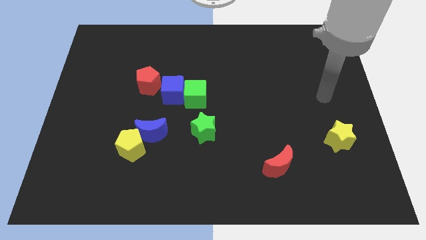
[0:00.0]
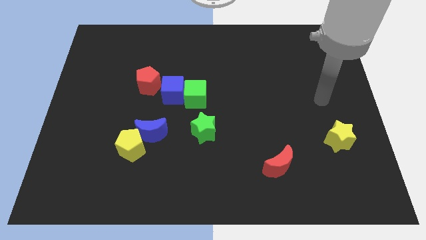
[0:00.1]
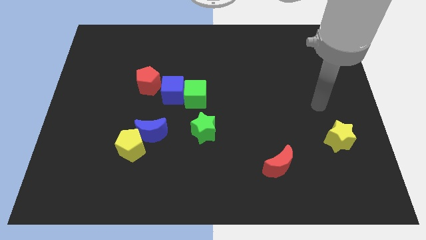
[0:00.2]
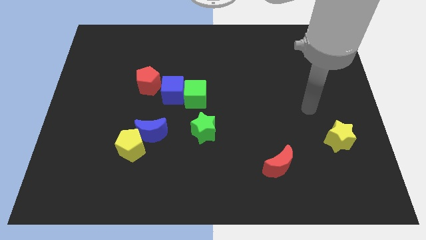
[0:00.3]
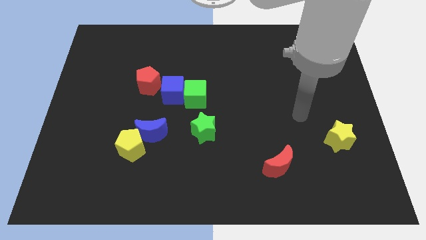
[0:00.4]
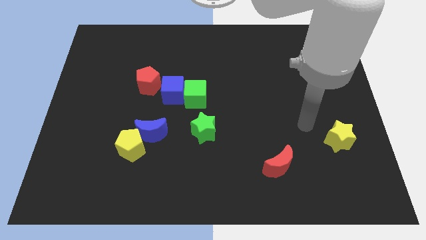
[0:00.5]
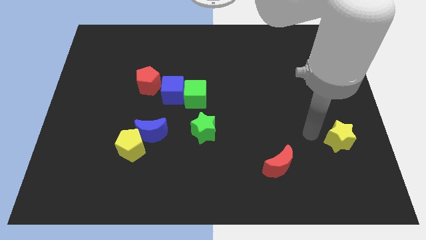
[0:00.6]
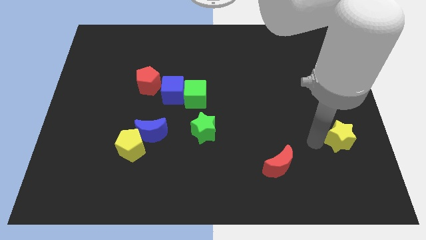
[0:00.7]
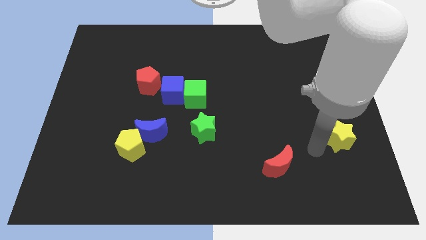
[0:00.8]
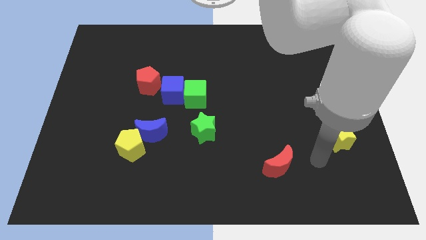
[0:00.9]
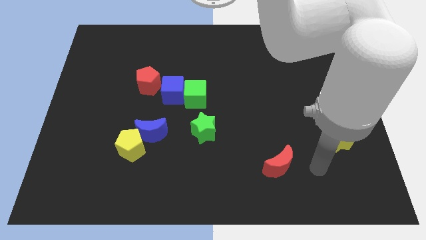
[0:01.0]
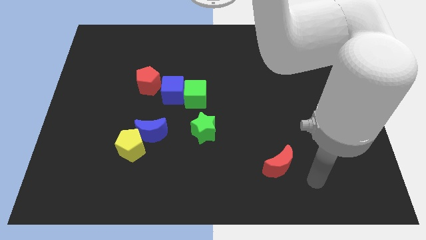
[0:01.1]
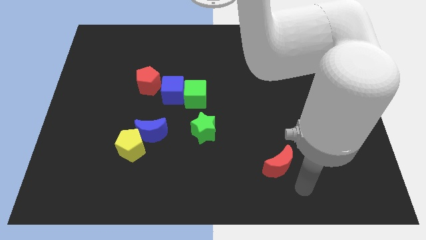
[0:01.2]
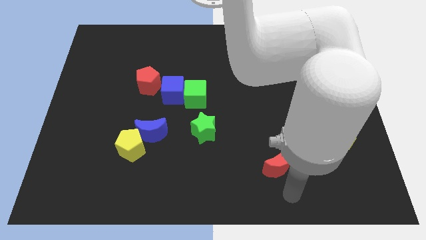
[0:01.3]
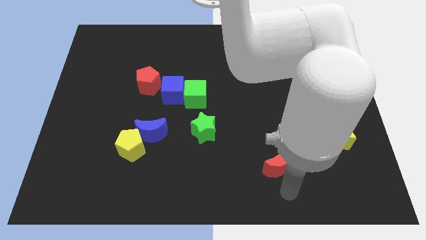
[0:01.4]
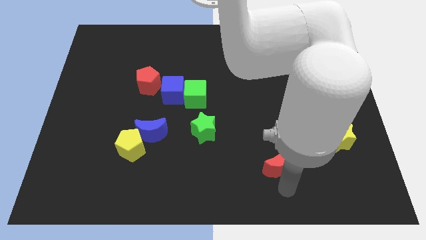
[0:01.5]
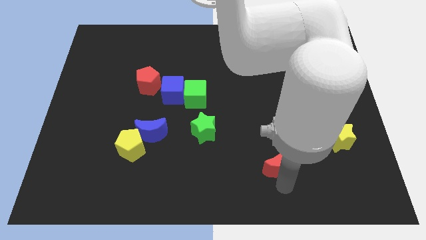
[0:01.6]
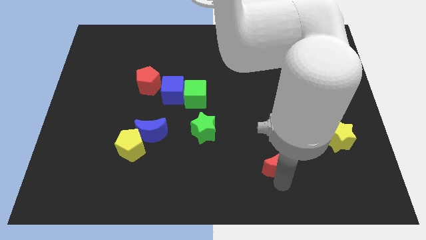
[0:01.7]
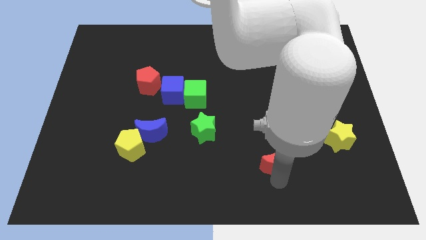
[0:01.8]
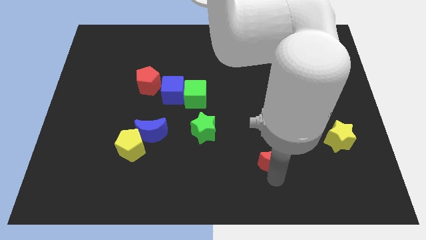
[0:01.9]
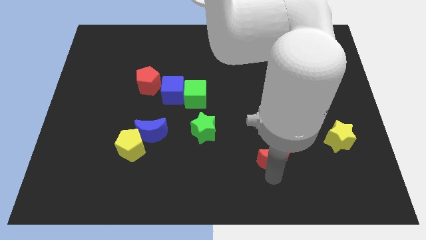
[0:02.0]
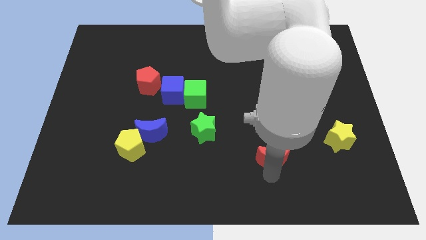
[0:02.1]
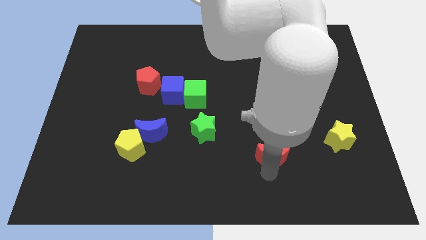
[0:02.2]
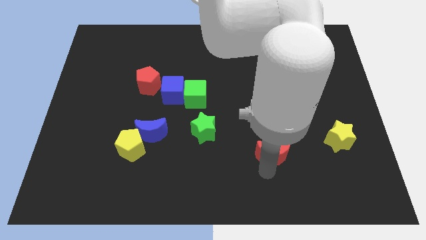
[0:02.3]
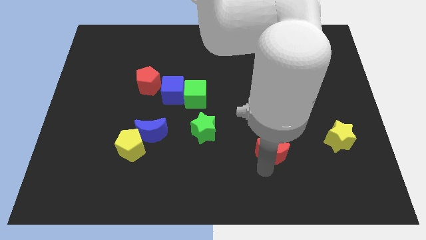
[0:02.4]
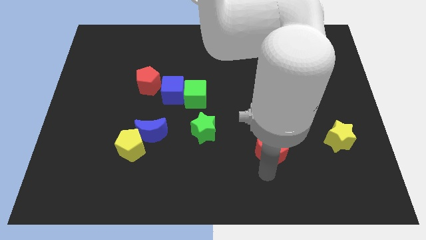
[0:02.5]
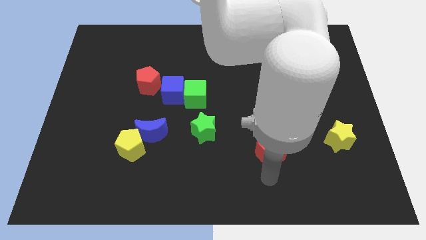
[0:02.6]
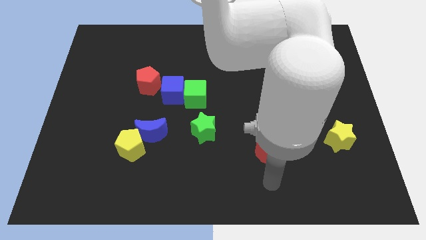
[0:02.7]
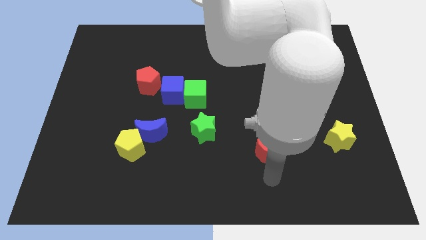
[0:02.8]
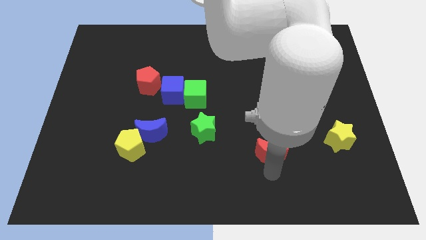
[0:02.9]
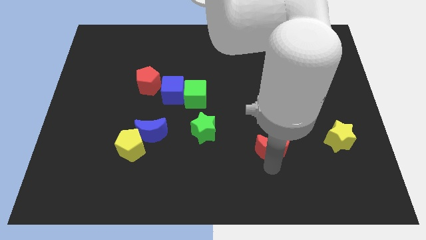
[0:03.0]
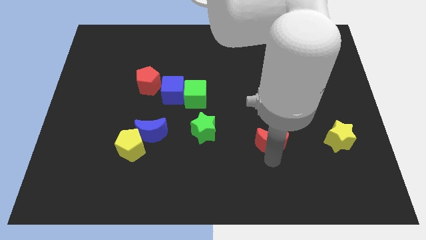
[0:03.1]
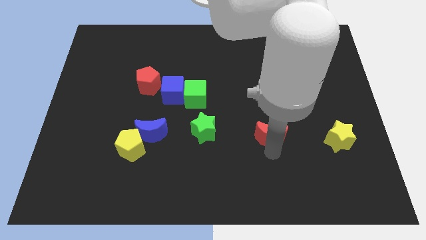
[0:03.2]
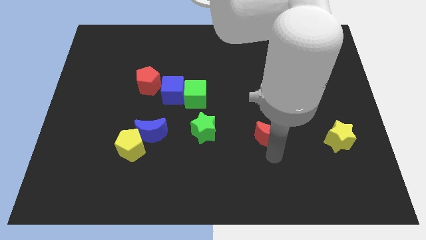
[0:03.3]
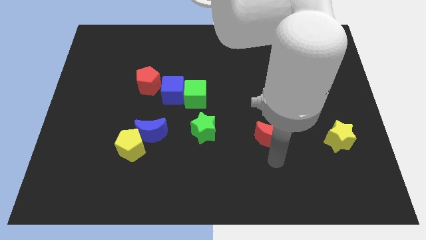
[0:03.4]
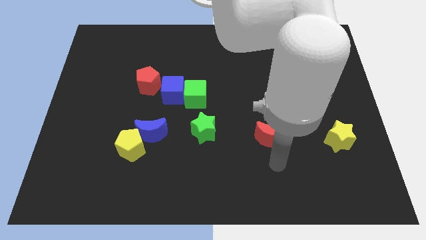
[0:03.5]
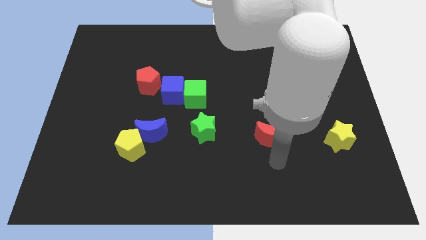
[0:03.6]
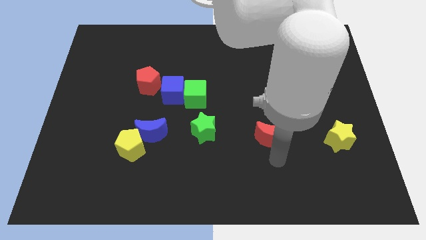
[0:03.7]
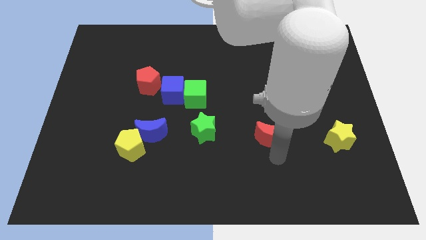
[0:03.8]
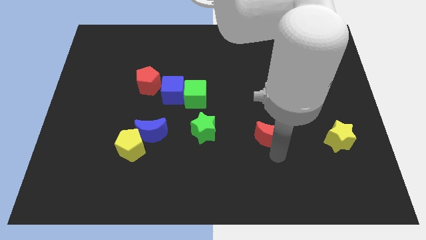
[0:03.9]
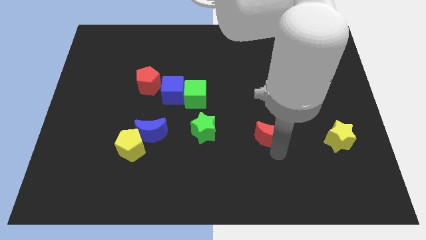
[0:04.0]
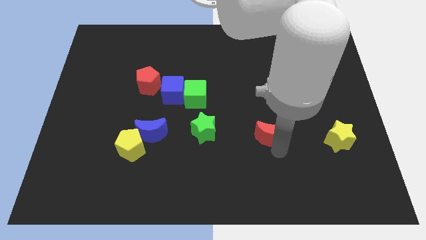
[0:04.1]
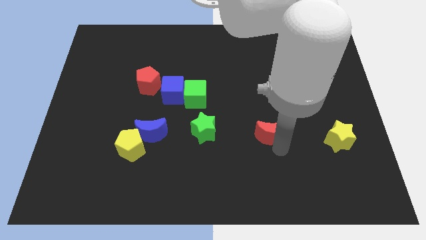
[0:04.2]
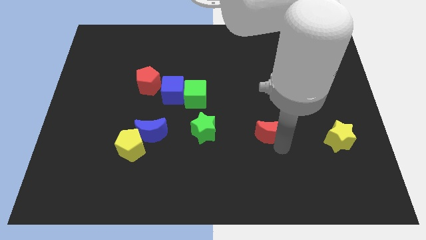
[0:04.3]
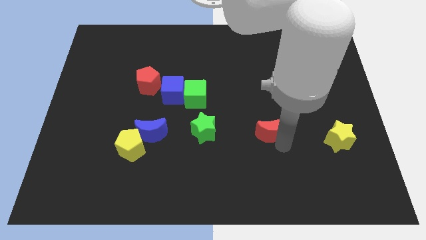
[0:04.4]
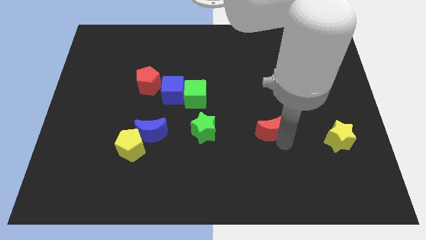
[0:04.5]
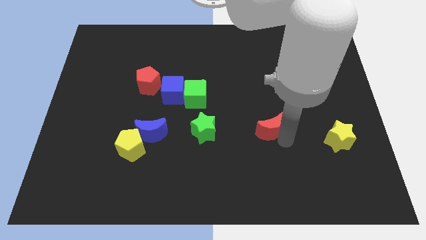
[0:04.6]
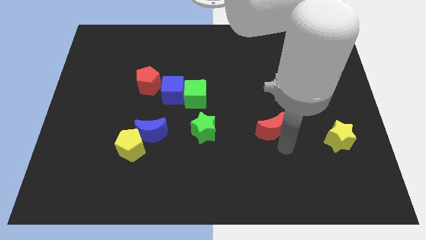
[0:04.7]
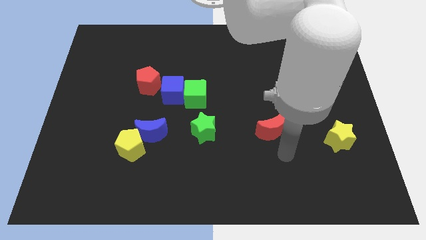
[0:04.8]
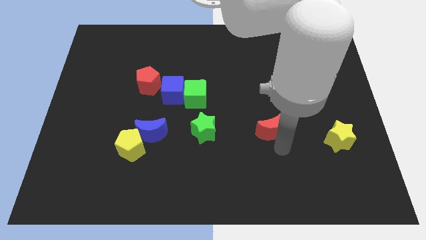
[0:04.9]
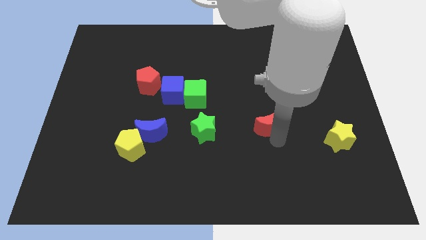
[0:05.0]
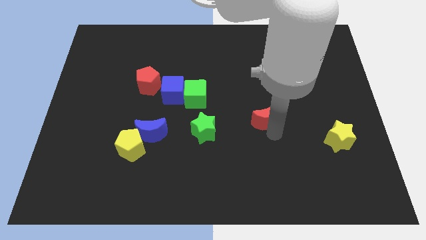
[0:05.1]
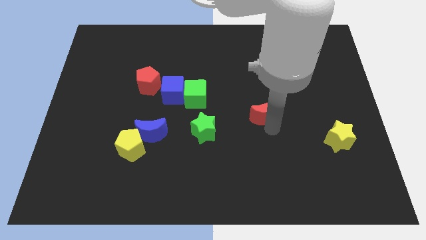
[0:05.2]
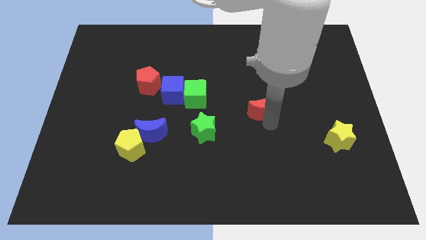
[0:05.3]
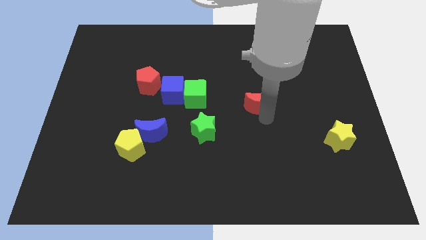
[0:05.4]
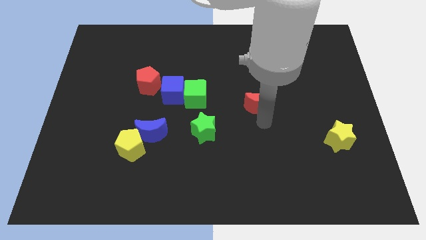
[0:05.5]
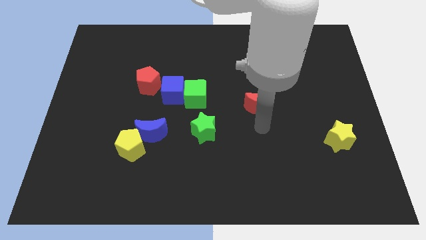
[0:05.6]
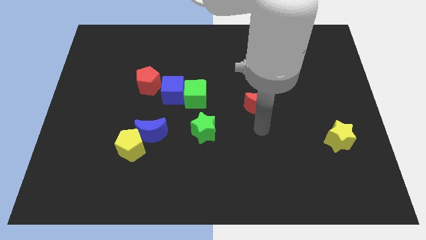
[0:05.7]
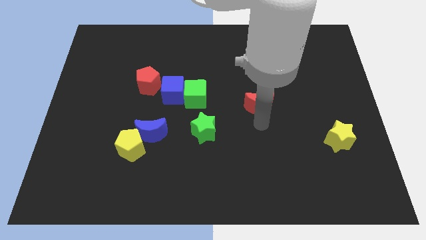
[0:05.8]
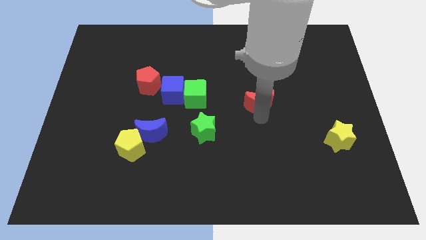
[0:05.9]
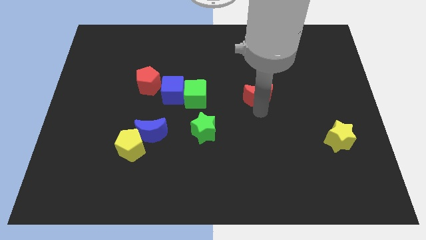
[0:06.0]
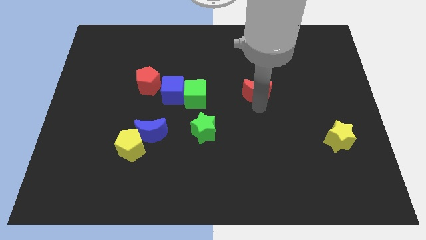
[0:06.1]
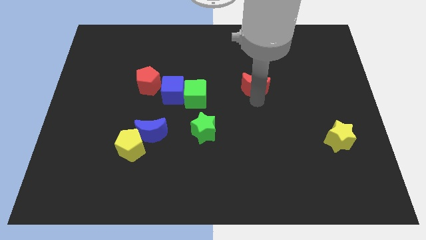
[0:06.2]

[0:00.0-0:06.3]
slide the red moon up

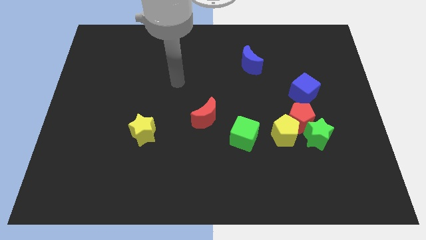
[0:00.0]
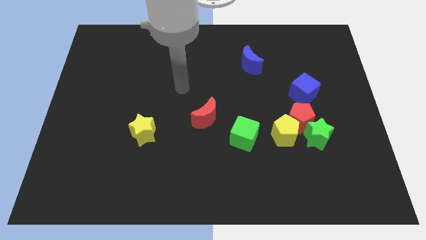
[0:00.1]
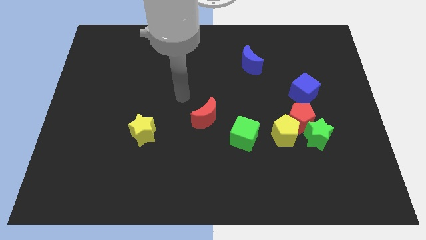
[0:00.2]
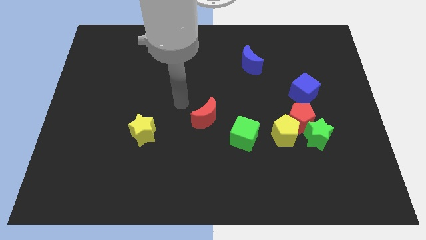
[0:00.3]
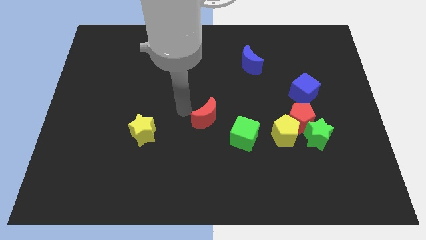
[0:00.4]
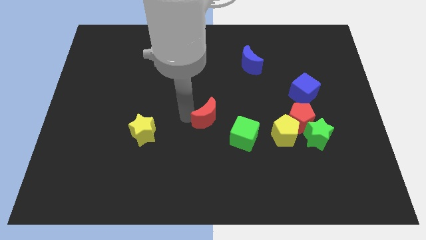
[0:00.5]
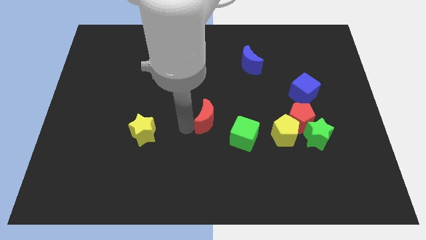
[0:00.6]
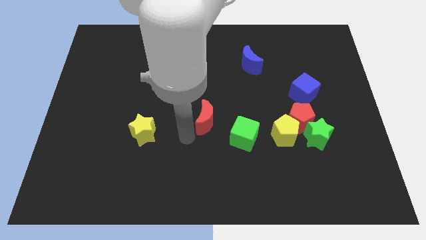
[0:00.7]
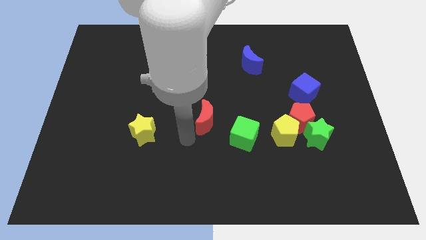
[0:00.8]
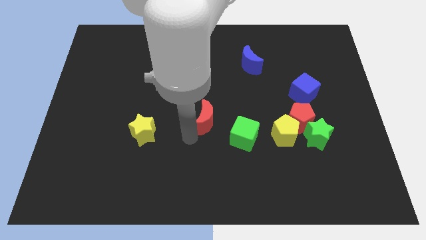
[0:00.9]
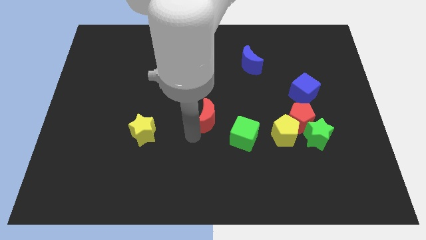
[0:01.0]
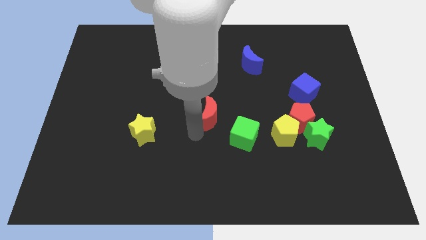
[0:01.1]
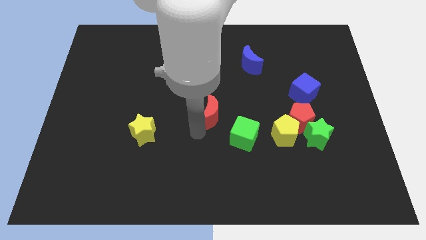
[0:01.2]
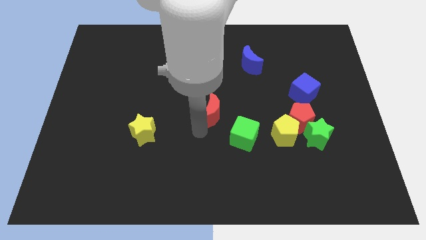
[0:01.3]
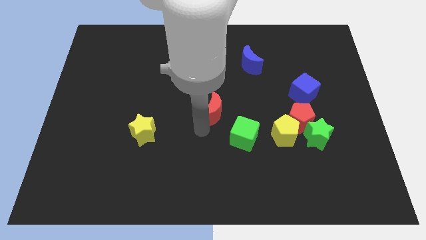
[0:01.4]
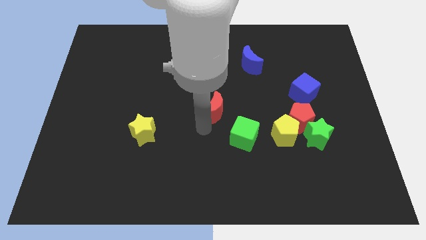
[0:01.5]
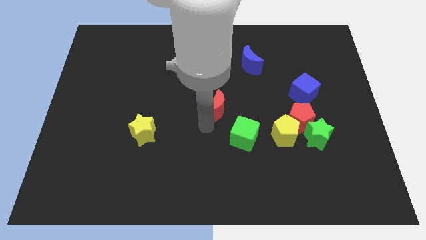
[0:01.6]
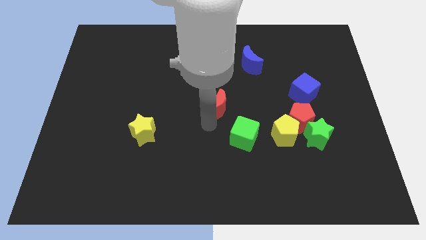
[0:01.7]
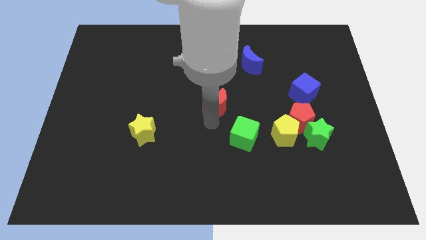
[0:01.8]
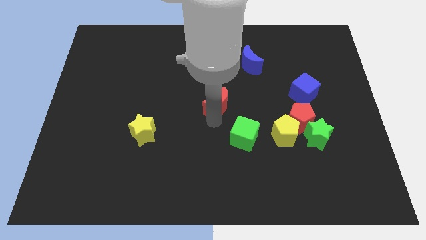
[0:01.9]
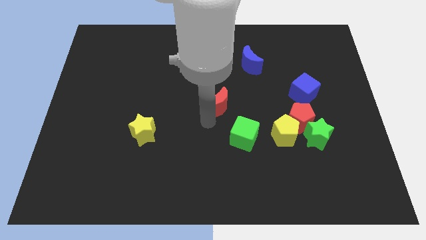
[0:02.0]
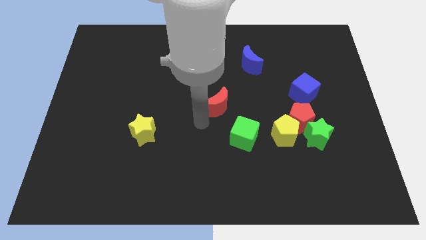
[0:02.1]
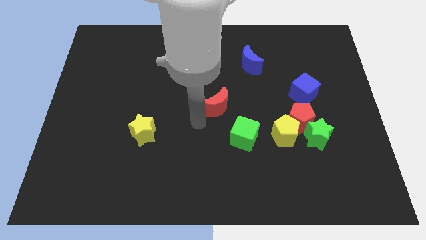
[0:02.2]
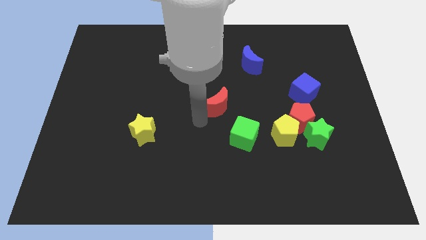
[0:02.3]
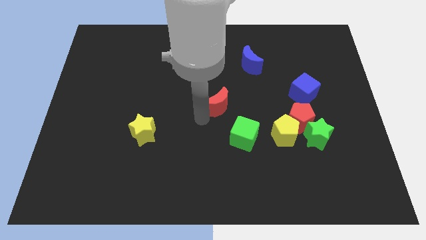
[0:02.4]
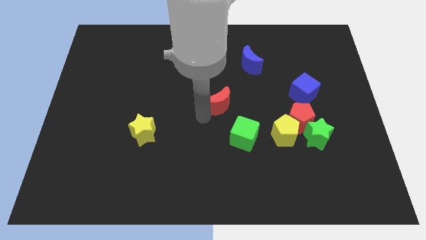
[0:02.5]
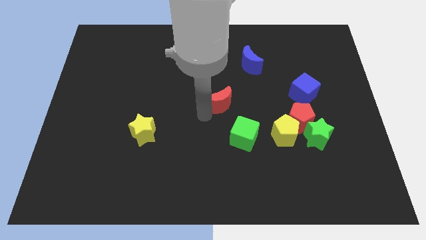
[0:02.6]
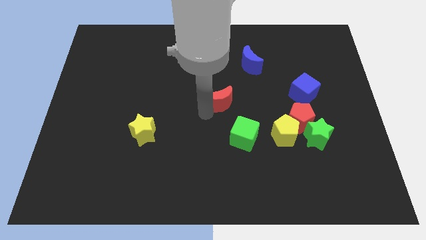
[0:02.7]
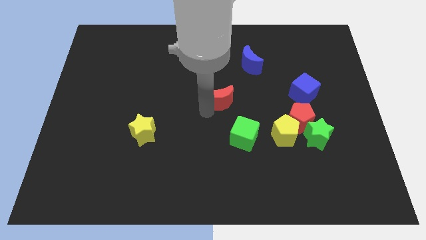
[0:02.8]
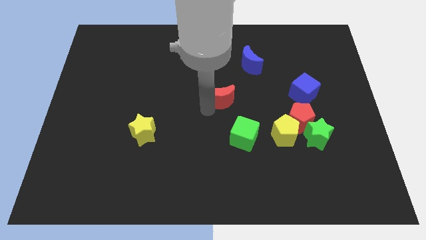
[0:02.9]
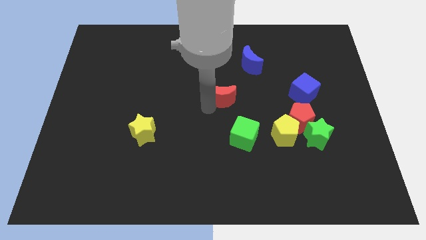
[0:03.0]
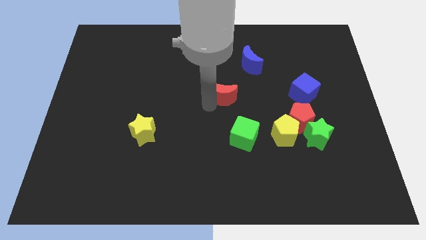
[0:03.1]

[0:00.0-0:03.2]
move the red moon a little up and right
